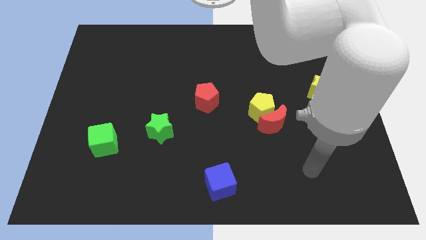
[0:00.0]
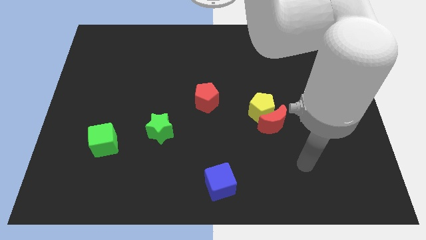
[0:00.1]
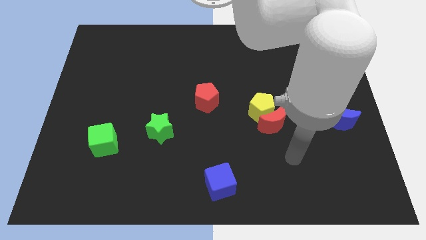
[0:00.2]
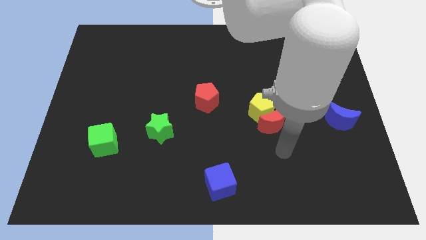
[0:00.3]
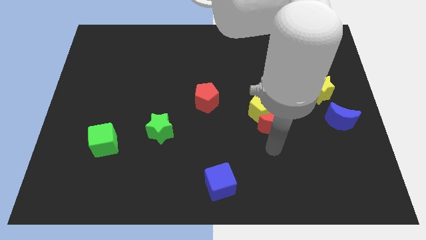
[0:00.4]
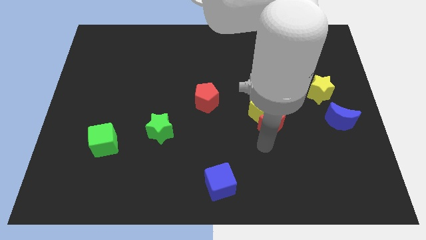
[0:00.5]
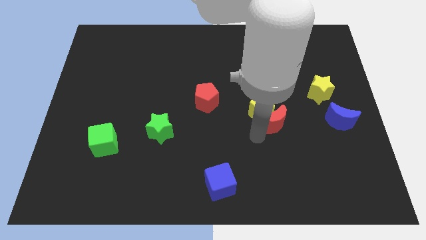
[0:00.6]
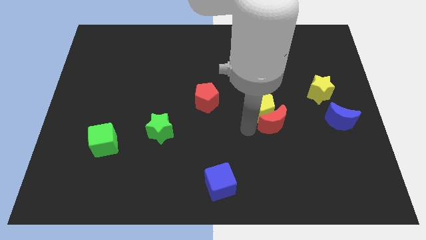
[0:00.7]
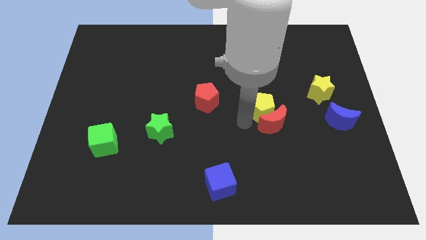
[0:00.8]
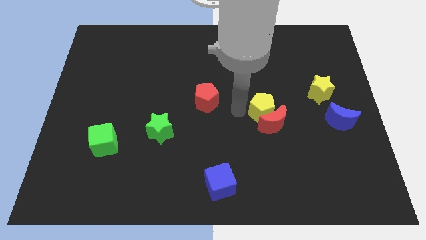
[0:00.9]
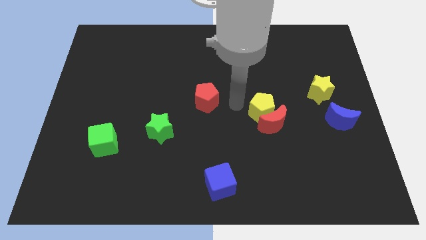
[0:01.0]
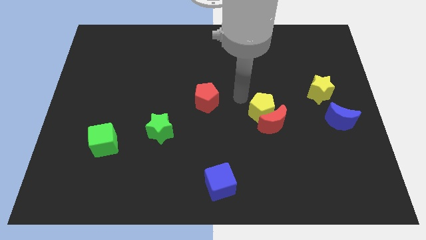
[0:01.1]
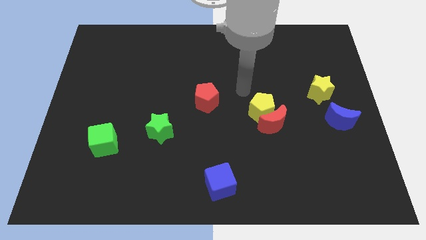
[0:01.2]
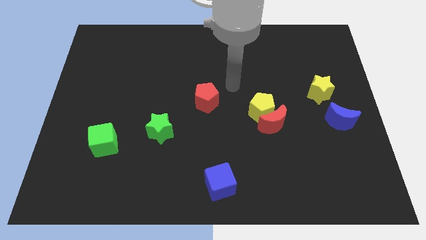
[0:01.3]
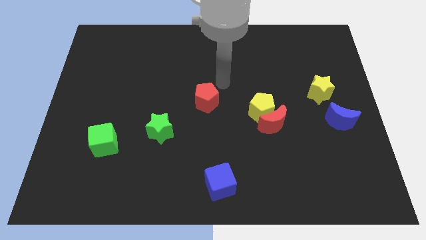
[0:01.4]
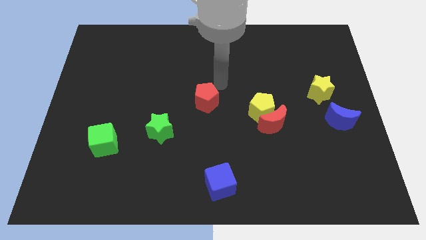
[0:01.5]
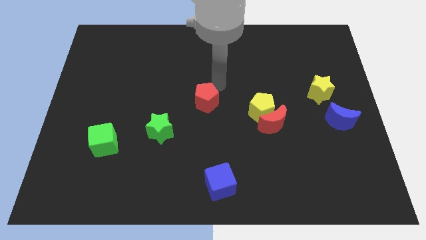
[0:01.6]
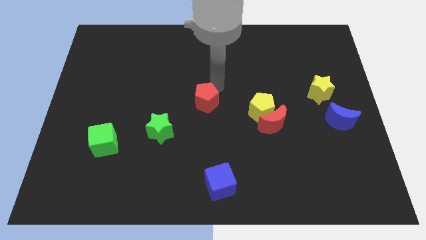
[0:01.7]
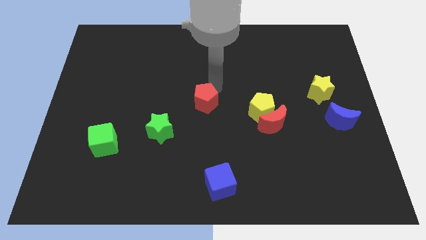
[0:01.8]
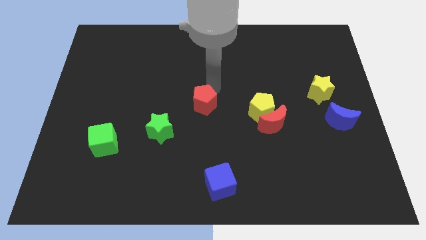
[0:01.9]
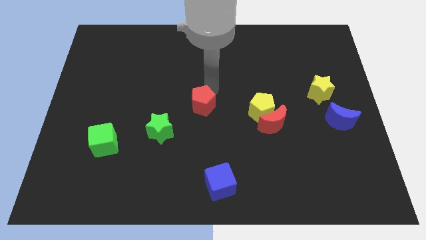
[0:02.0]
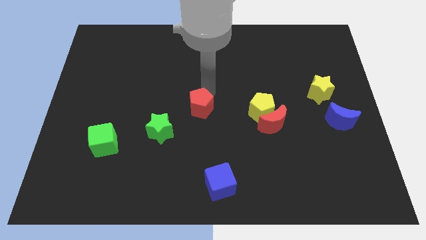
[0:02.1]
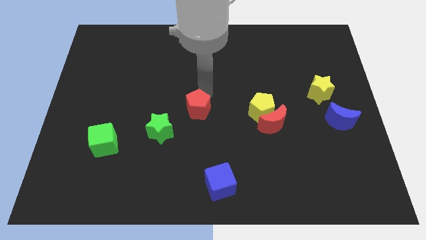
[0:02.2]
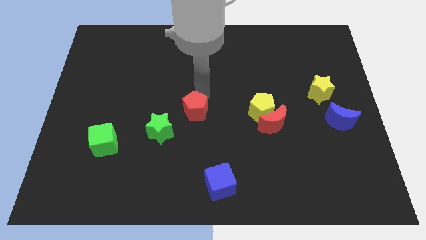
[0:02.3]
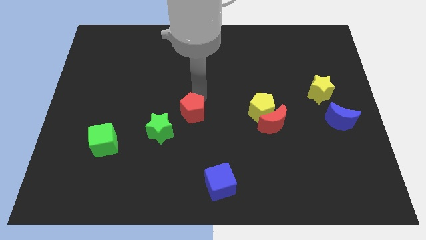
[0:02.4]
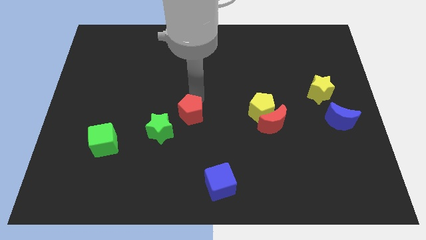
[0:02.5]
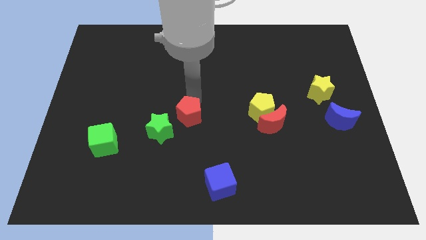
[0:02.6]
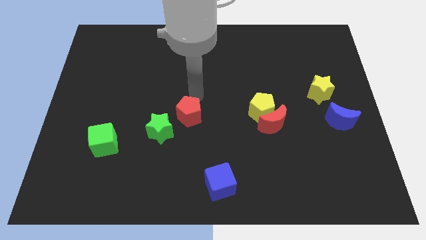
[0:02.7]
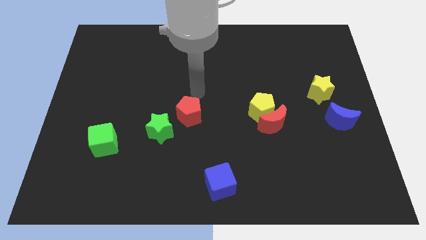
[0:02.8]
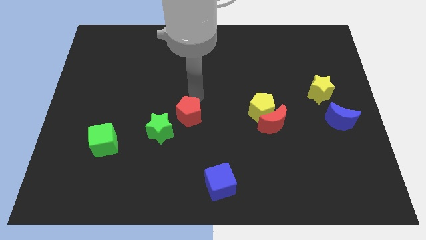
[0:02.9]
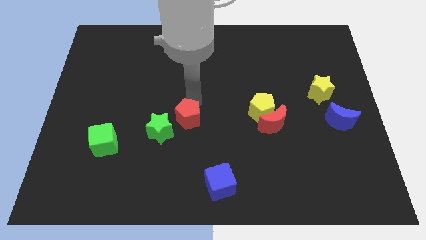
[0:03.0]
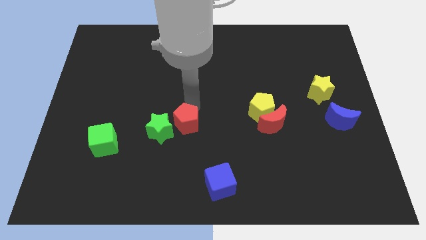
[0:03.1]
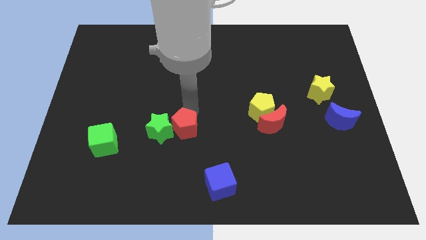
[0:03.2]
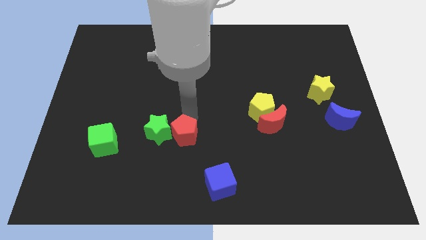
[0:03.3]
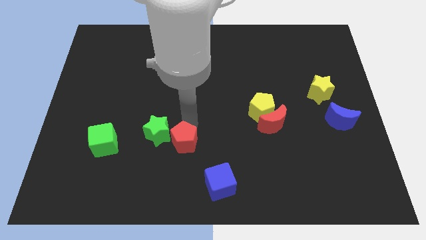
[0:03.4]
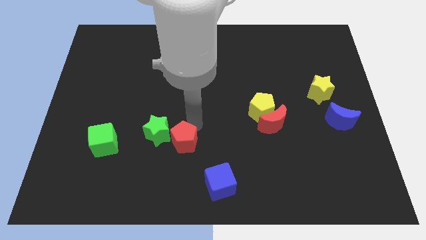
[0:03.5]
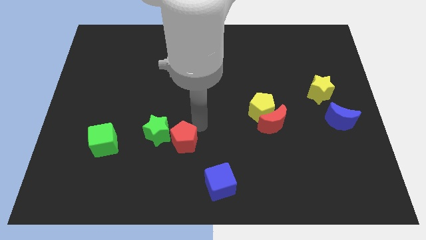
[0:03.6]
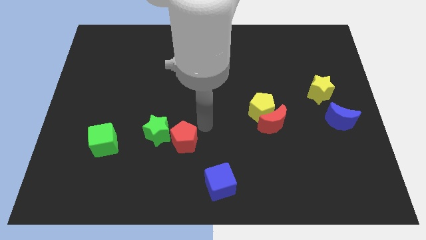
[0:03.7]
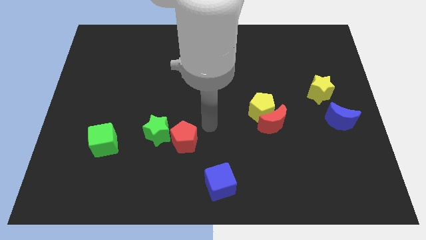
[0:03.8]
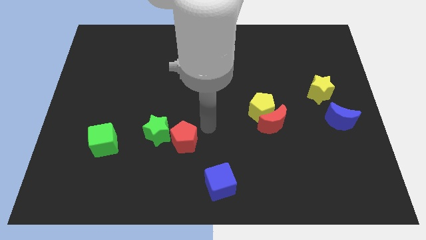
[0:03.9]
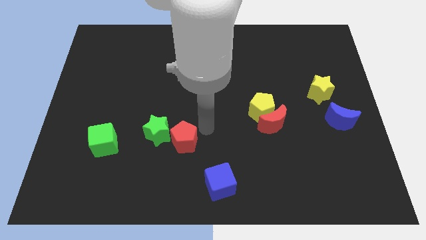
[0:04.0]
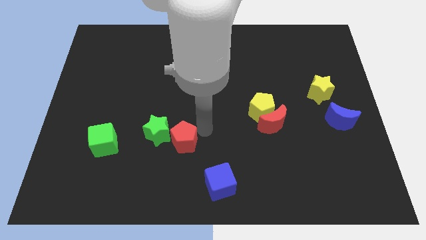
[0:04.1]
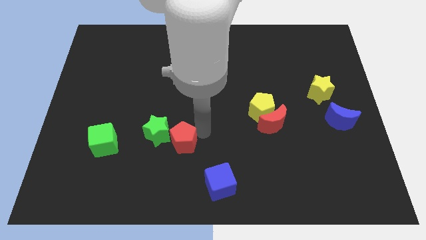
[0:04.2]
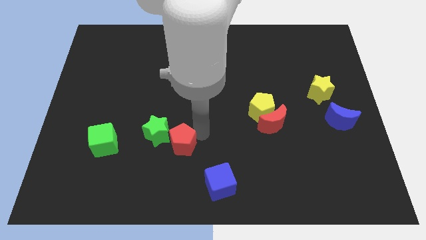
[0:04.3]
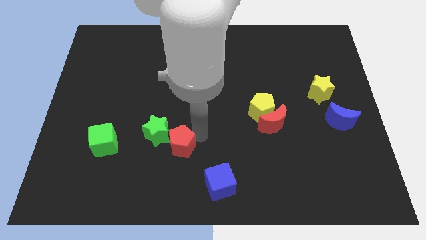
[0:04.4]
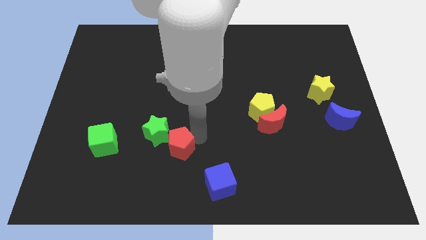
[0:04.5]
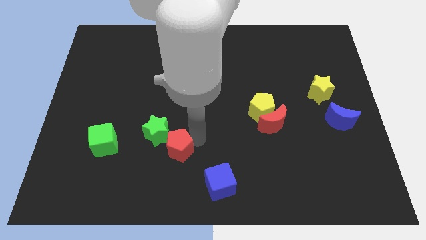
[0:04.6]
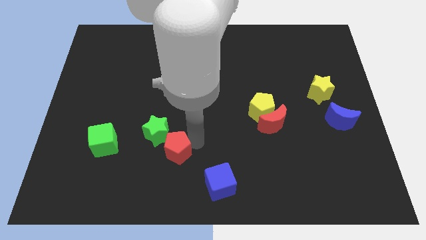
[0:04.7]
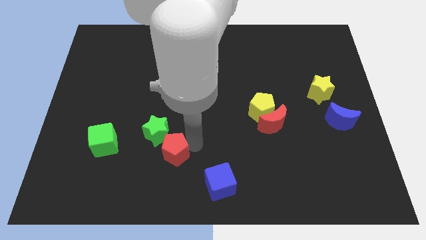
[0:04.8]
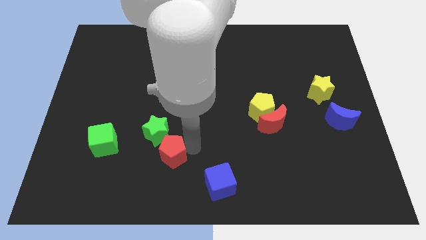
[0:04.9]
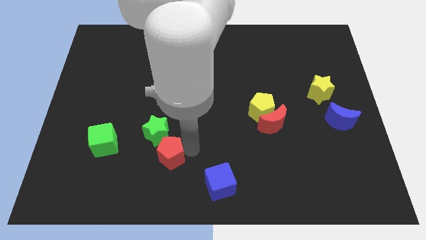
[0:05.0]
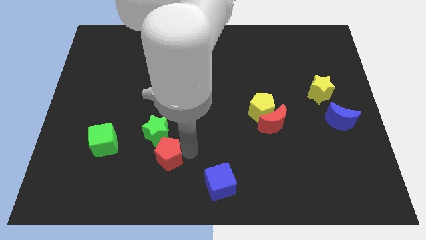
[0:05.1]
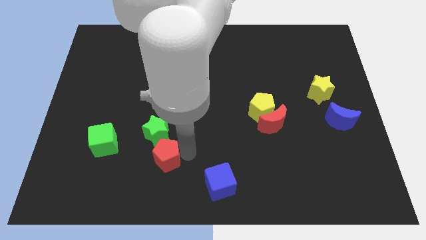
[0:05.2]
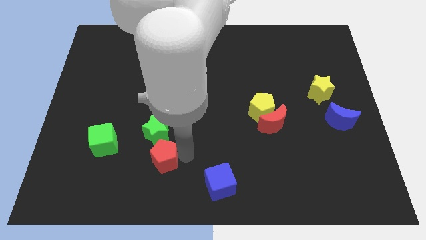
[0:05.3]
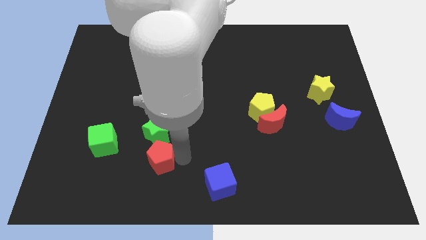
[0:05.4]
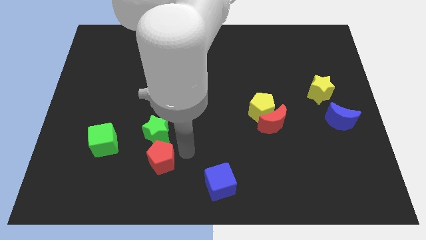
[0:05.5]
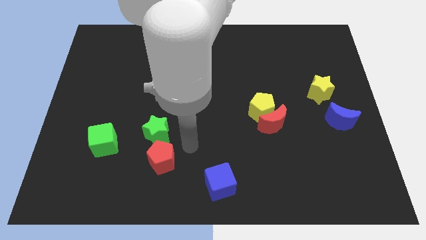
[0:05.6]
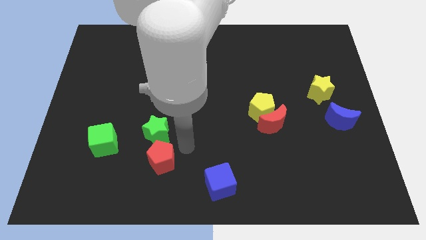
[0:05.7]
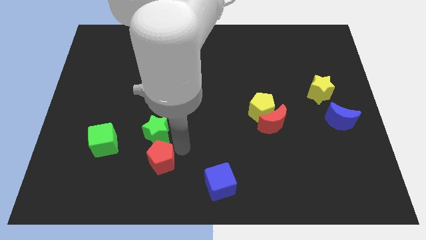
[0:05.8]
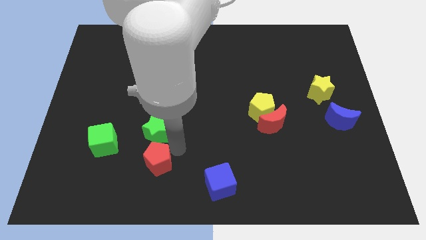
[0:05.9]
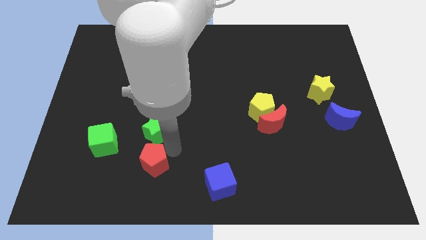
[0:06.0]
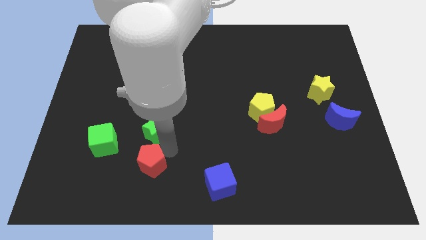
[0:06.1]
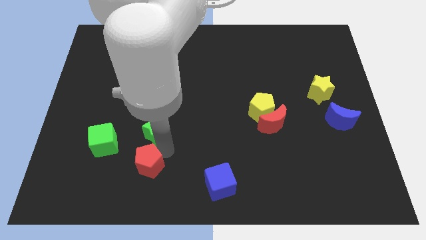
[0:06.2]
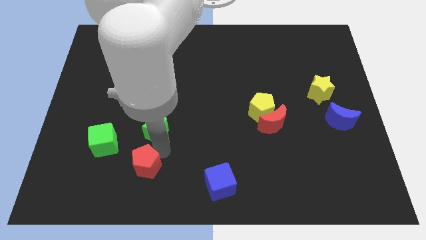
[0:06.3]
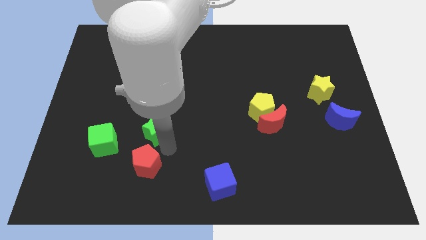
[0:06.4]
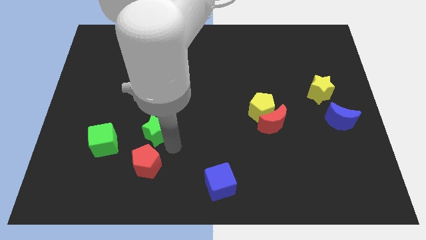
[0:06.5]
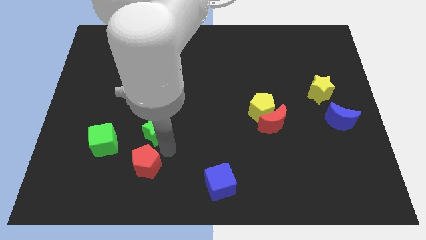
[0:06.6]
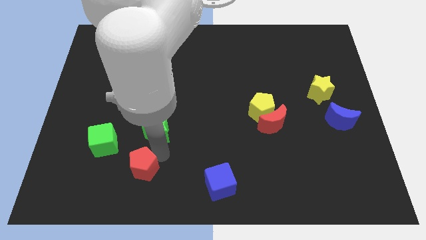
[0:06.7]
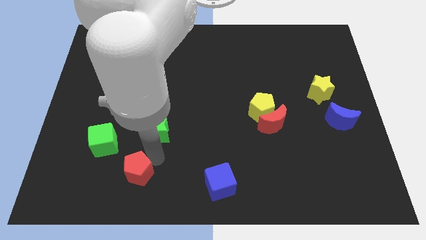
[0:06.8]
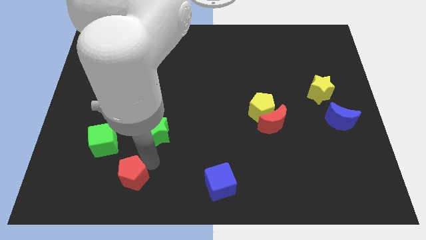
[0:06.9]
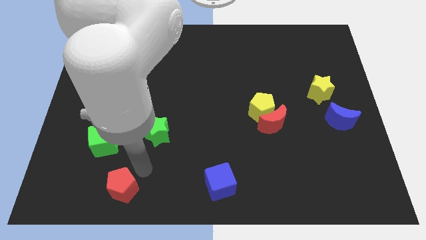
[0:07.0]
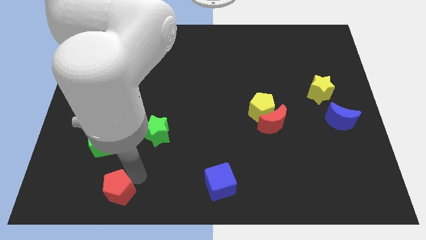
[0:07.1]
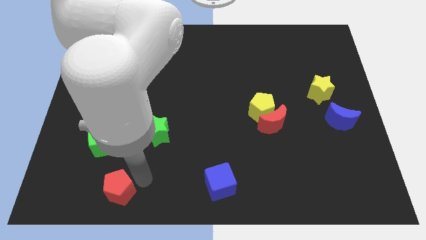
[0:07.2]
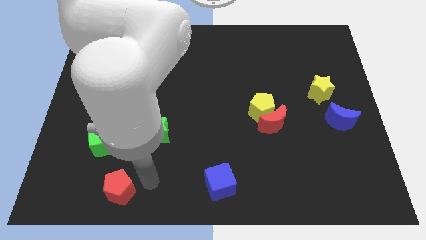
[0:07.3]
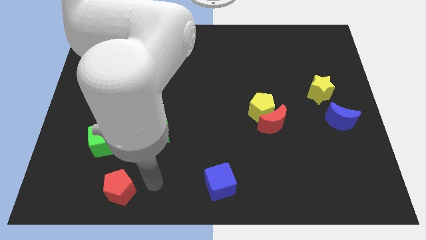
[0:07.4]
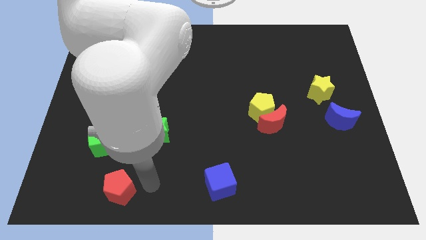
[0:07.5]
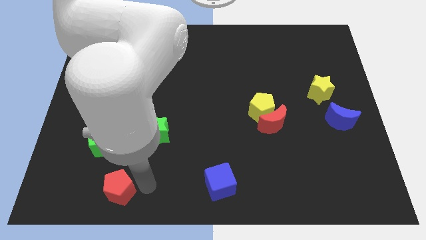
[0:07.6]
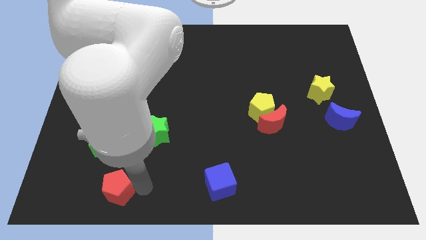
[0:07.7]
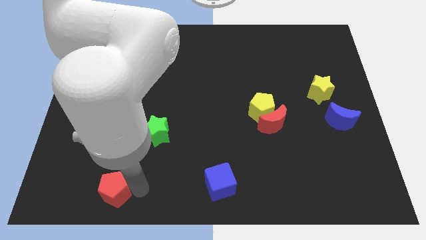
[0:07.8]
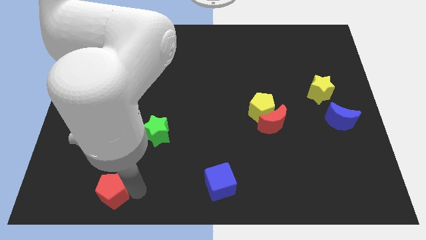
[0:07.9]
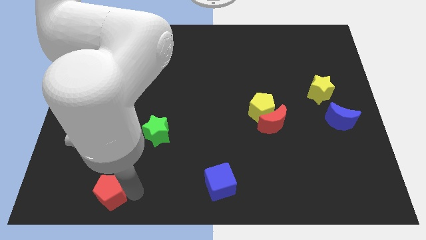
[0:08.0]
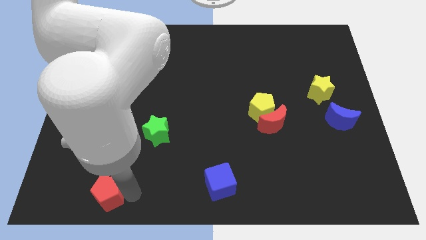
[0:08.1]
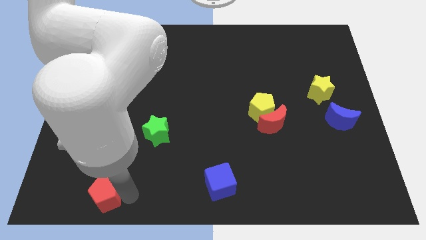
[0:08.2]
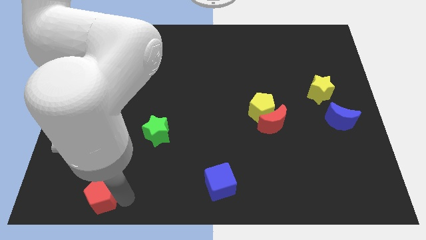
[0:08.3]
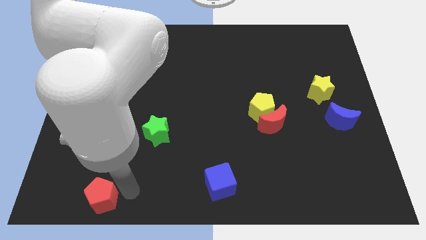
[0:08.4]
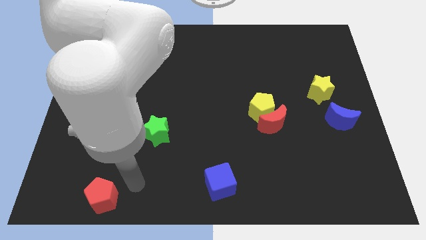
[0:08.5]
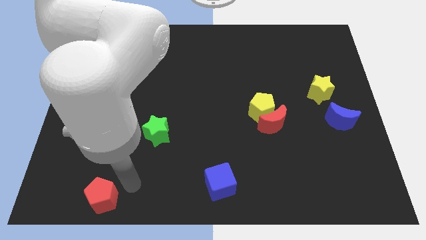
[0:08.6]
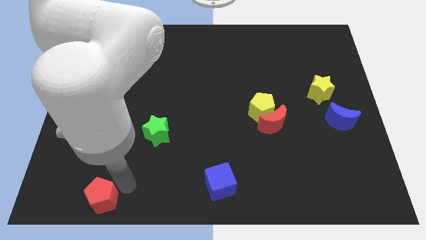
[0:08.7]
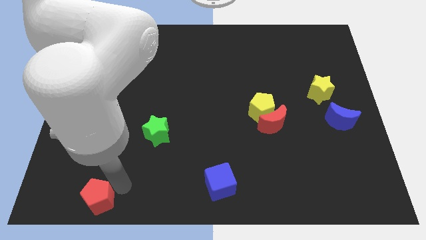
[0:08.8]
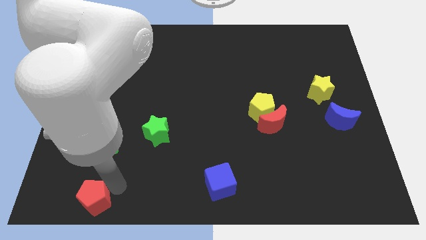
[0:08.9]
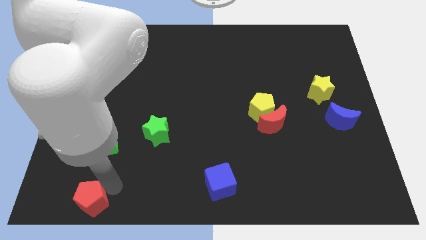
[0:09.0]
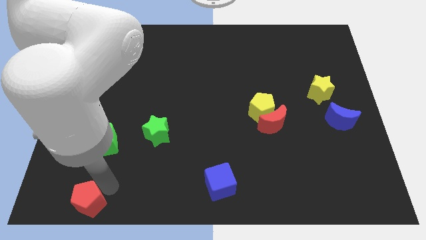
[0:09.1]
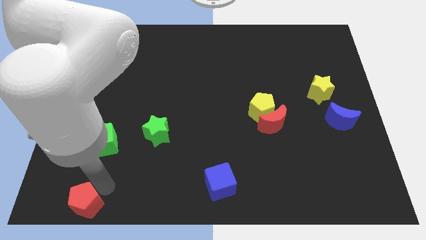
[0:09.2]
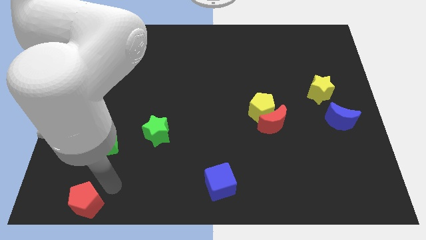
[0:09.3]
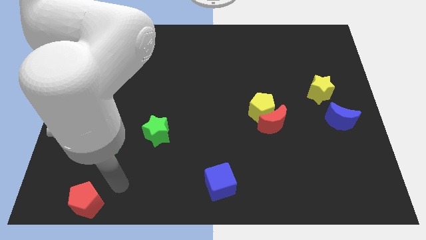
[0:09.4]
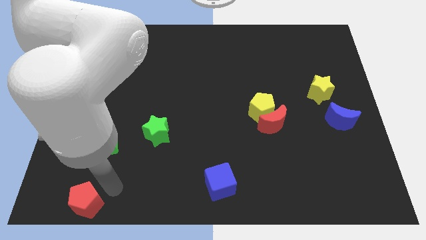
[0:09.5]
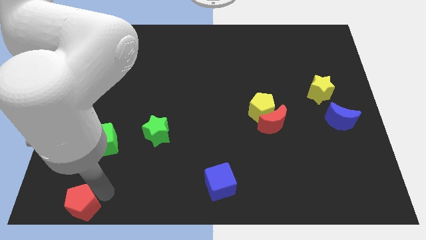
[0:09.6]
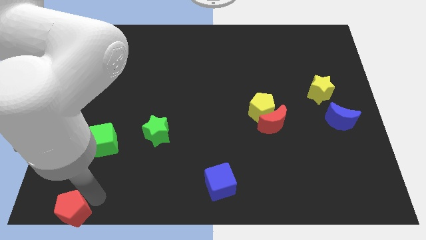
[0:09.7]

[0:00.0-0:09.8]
slide the red pentagon to the lower left corner
